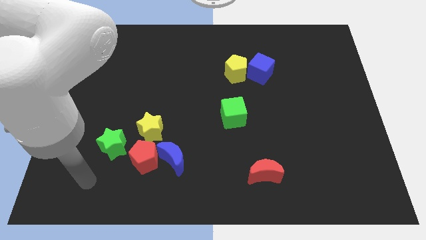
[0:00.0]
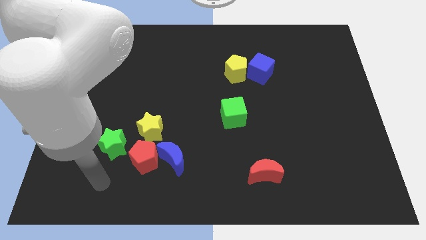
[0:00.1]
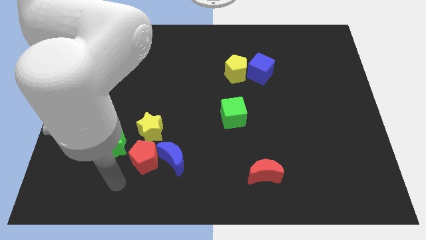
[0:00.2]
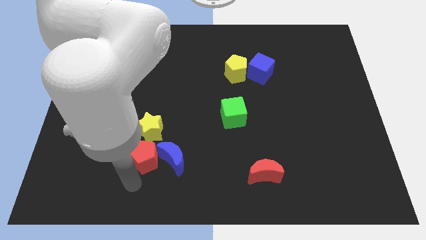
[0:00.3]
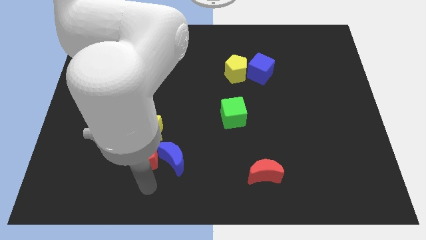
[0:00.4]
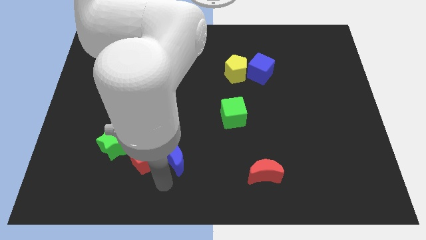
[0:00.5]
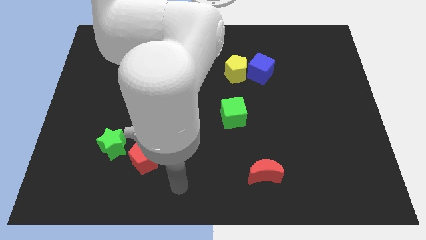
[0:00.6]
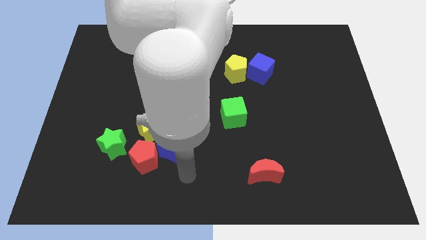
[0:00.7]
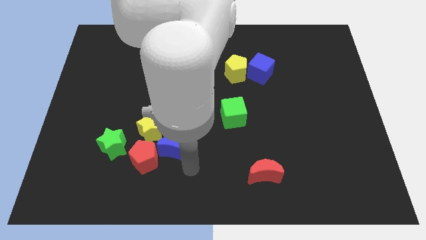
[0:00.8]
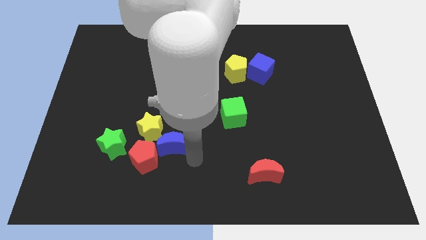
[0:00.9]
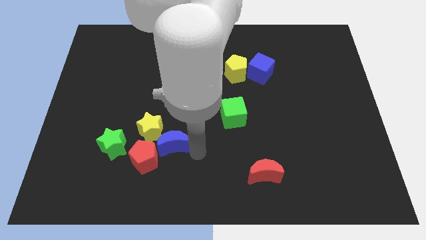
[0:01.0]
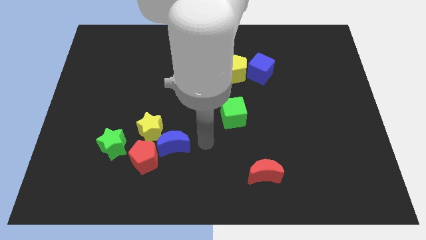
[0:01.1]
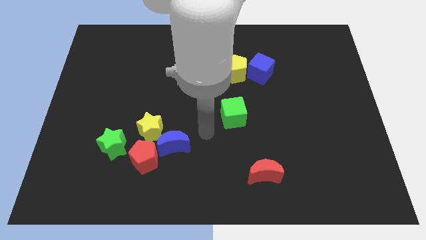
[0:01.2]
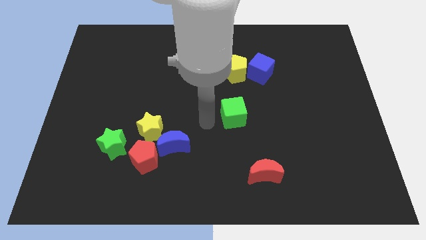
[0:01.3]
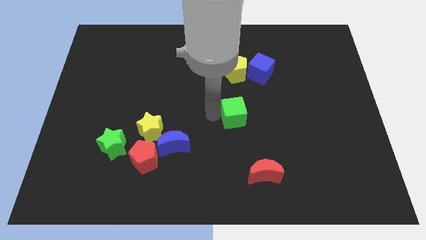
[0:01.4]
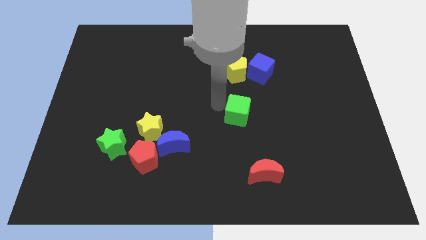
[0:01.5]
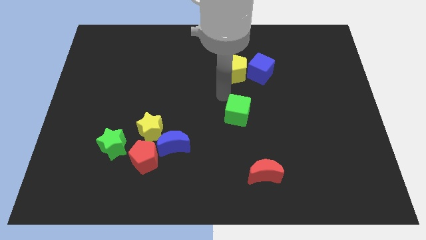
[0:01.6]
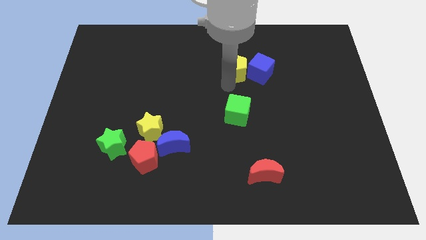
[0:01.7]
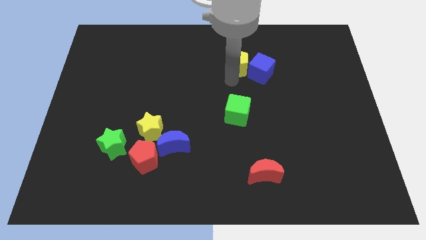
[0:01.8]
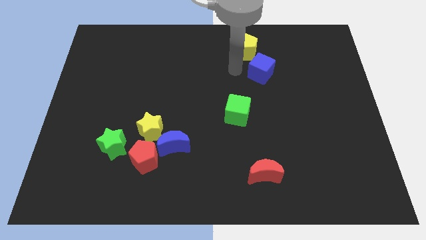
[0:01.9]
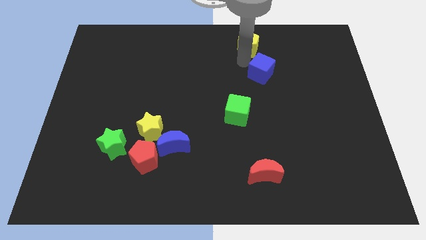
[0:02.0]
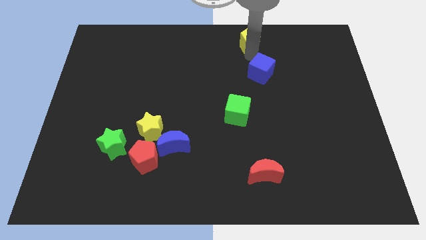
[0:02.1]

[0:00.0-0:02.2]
separate the blue cube from the yellow pentagon

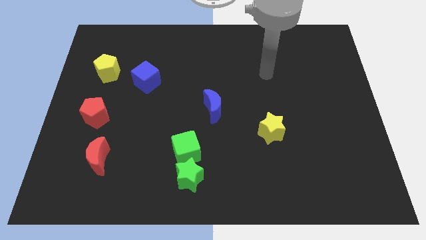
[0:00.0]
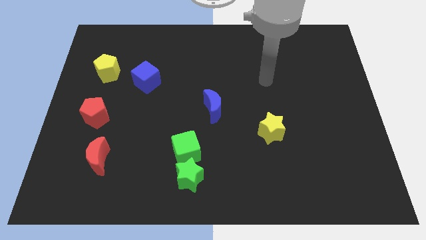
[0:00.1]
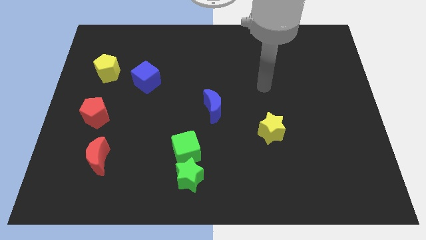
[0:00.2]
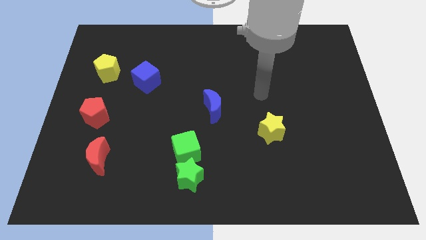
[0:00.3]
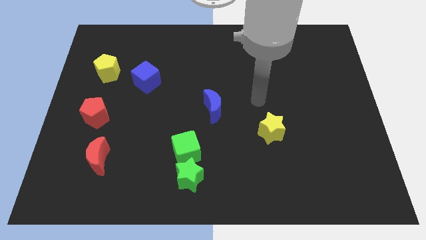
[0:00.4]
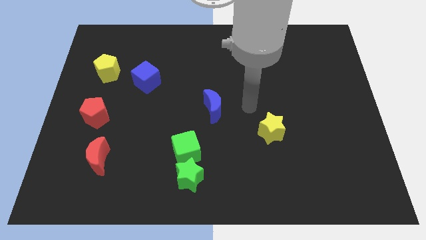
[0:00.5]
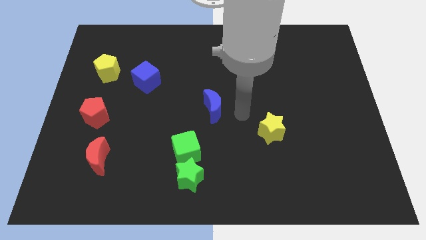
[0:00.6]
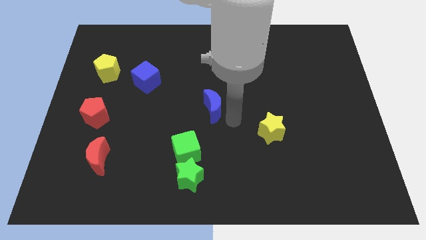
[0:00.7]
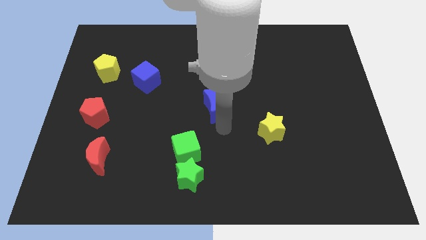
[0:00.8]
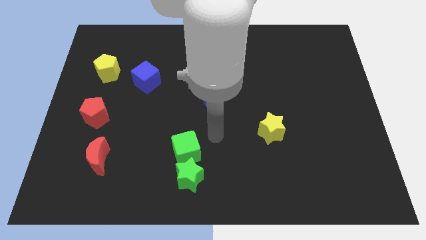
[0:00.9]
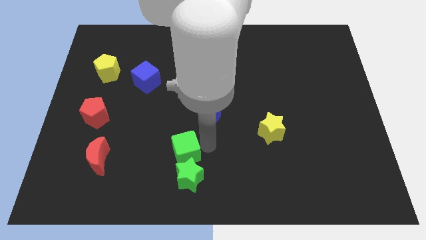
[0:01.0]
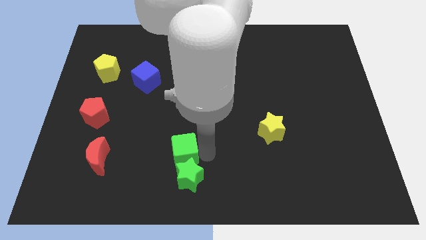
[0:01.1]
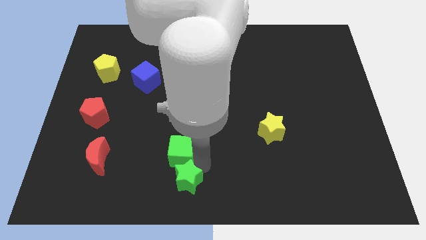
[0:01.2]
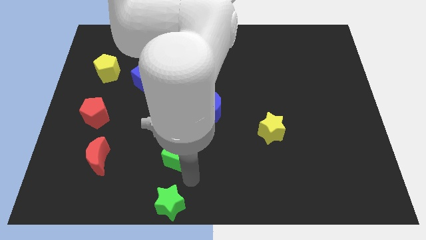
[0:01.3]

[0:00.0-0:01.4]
separate the green cube from the green star

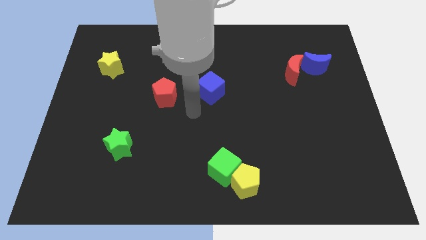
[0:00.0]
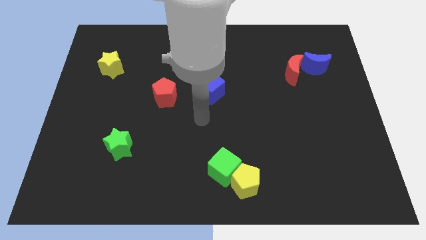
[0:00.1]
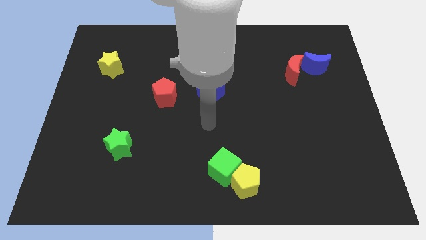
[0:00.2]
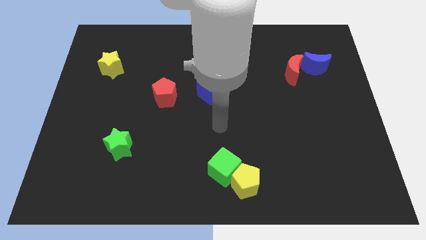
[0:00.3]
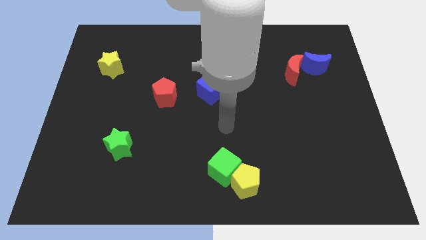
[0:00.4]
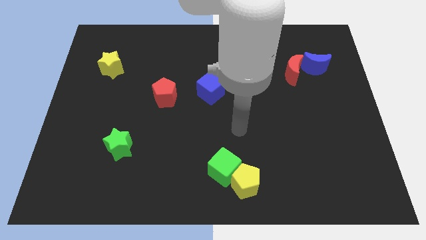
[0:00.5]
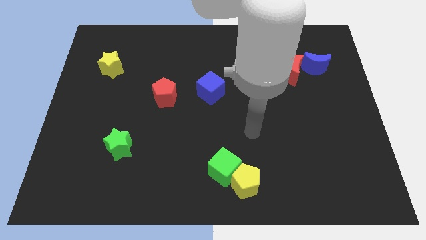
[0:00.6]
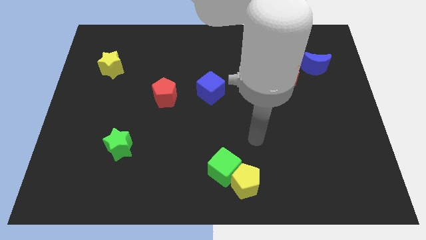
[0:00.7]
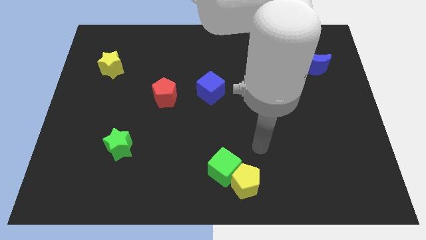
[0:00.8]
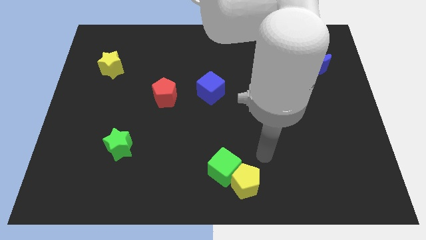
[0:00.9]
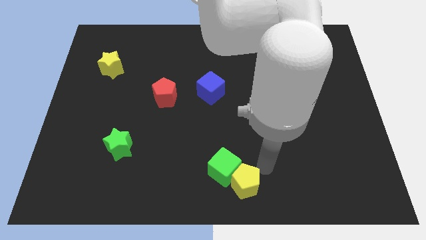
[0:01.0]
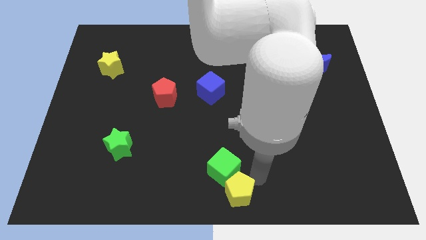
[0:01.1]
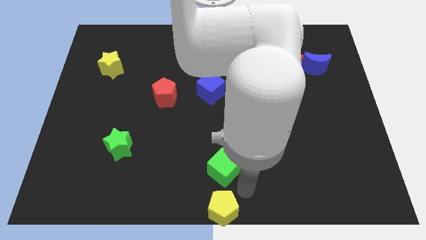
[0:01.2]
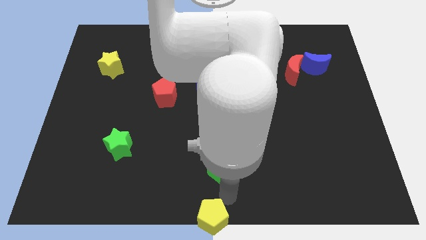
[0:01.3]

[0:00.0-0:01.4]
pull the green cube apart from the yellow pentagon

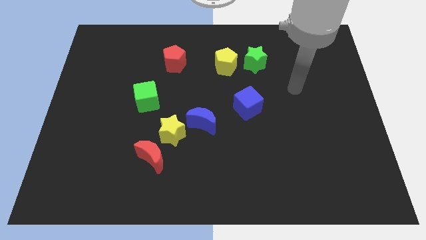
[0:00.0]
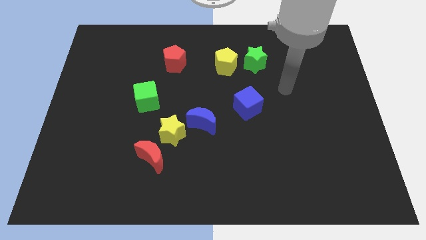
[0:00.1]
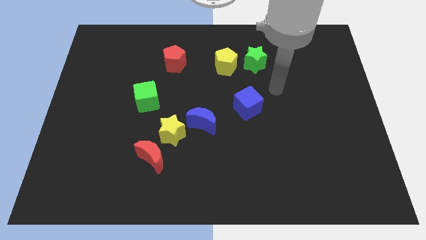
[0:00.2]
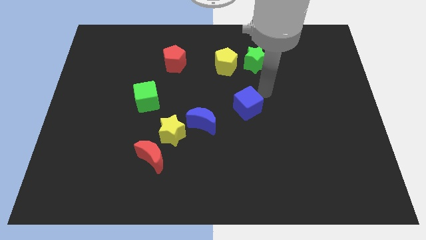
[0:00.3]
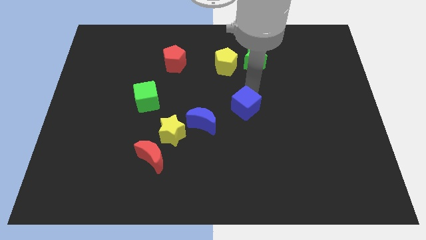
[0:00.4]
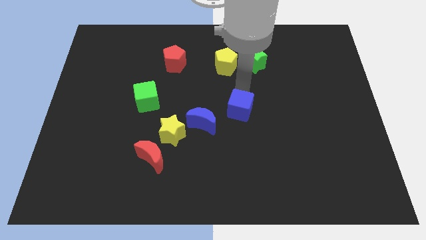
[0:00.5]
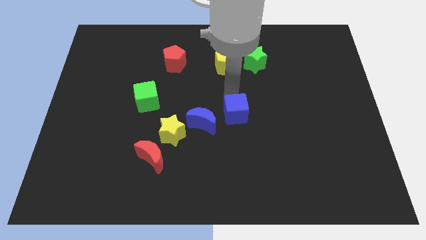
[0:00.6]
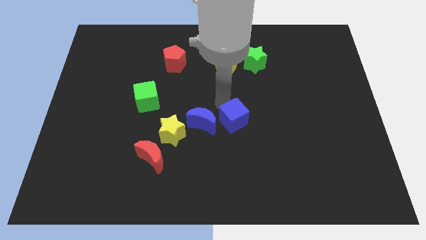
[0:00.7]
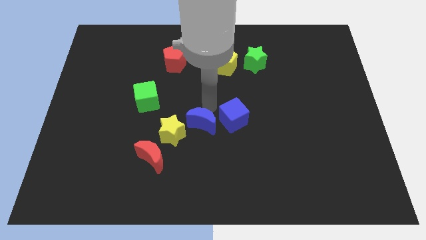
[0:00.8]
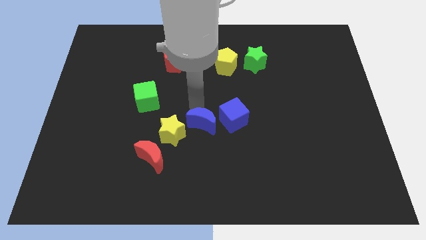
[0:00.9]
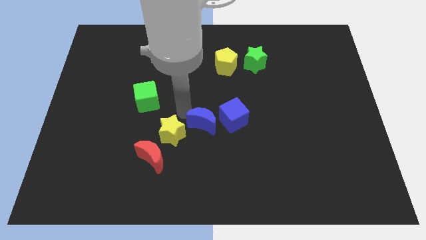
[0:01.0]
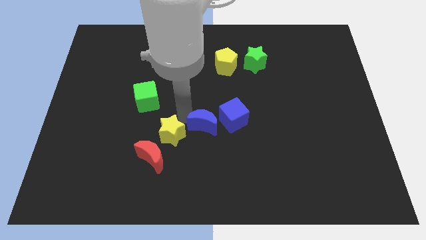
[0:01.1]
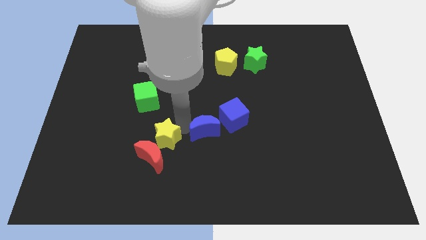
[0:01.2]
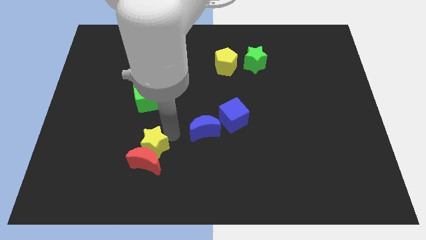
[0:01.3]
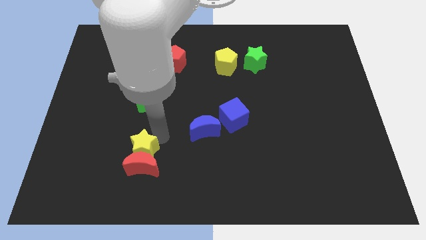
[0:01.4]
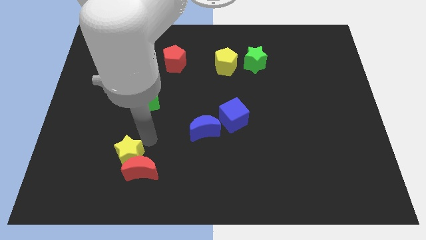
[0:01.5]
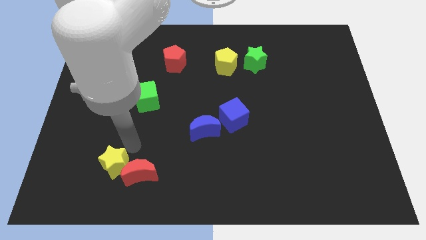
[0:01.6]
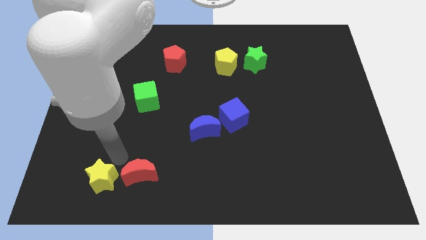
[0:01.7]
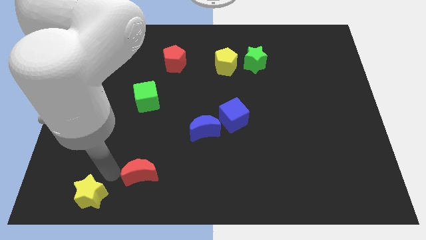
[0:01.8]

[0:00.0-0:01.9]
move the red moon away from the yellow star

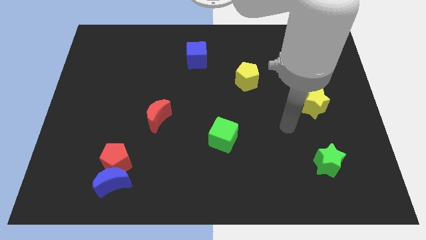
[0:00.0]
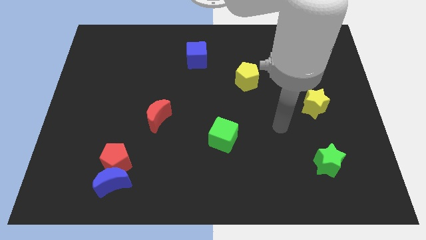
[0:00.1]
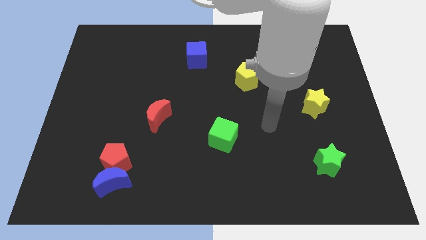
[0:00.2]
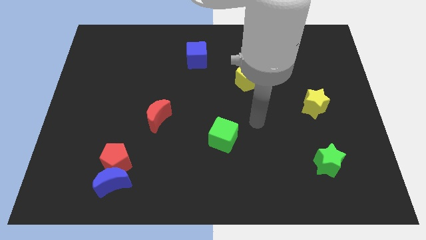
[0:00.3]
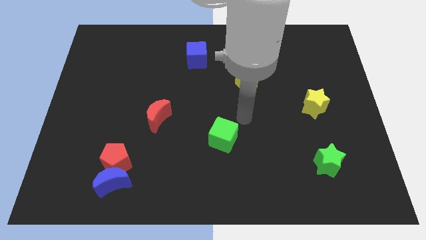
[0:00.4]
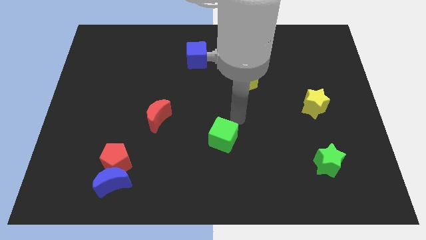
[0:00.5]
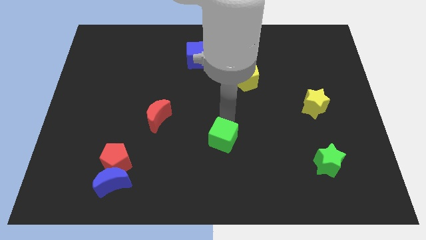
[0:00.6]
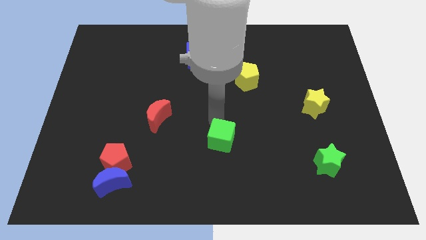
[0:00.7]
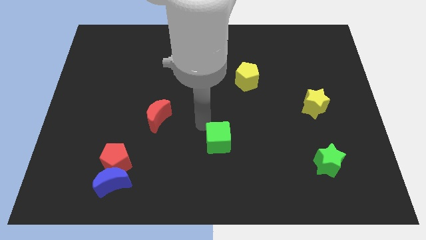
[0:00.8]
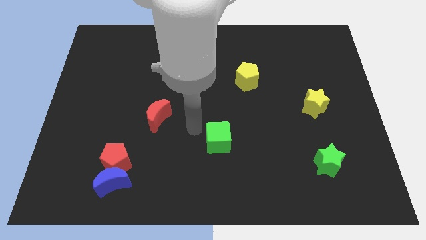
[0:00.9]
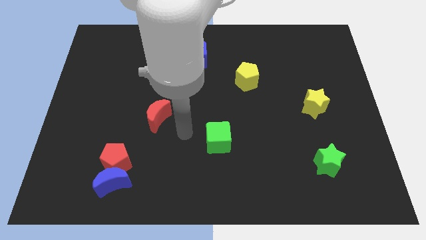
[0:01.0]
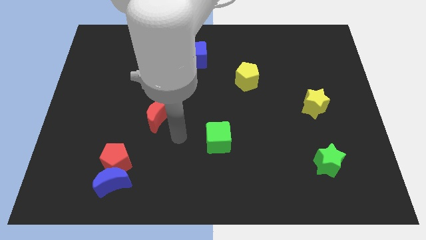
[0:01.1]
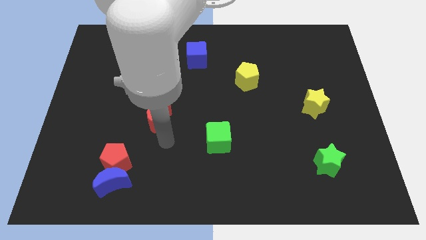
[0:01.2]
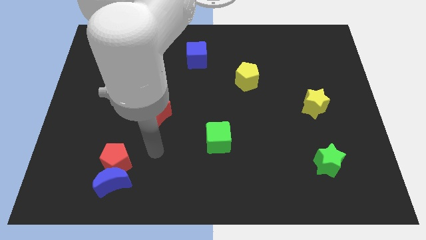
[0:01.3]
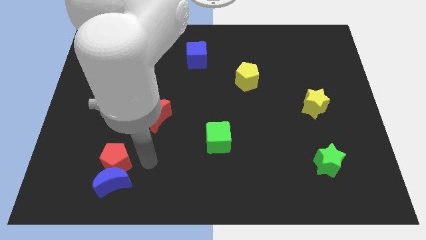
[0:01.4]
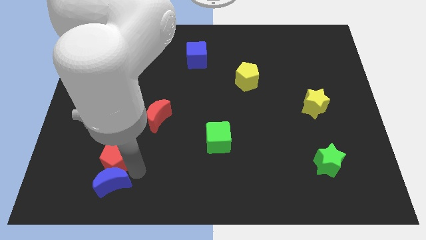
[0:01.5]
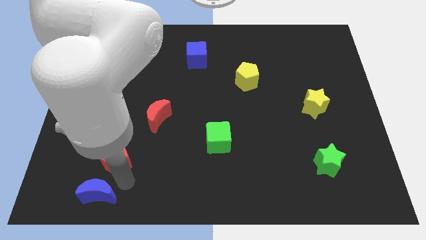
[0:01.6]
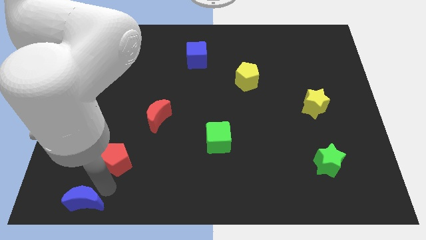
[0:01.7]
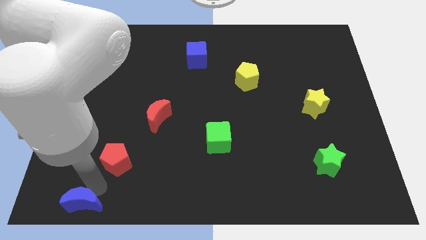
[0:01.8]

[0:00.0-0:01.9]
separate the red pentagon from the blue moon

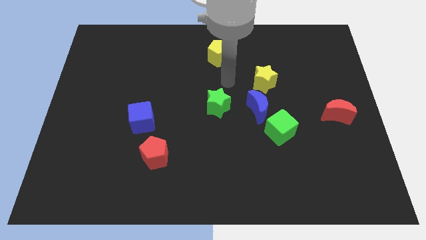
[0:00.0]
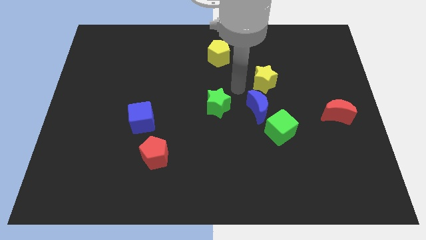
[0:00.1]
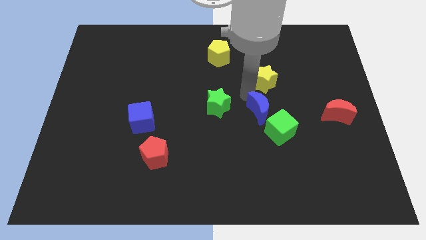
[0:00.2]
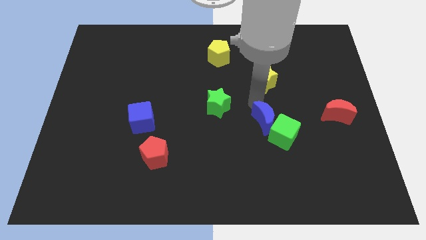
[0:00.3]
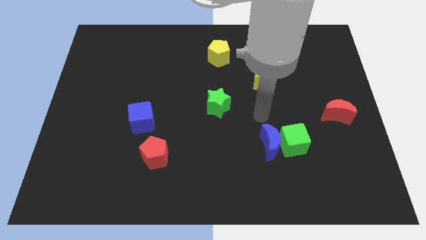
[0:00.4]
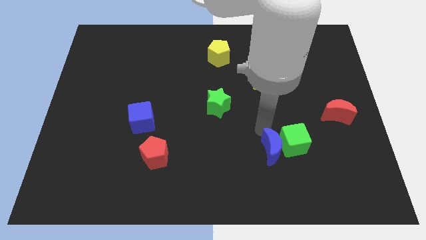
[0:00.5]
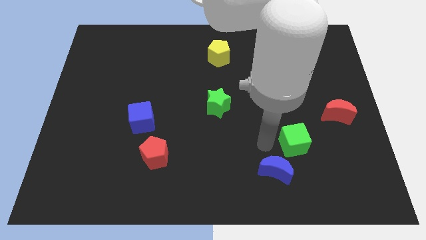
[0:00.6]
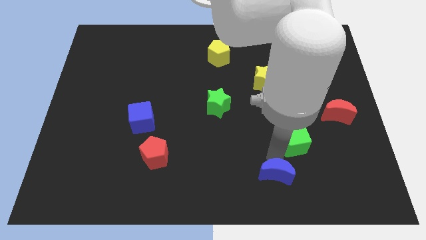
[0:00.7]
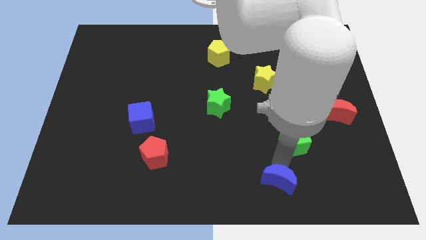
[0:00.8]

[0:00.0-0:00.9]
move the green cube away from the blue moon
